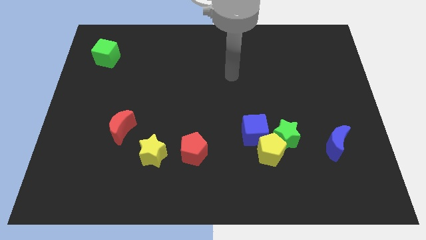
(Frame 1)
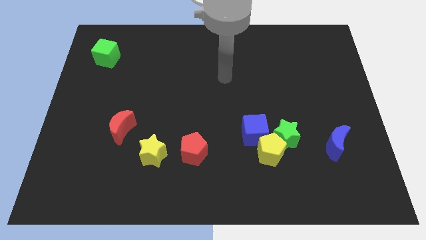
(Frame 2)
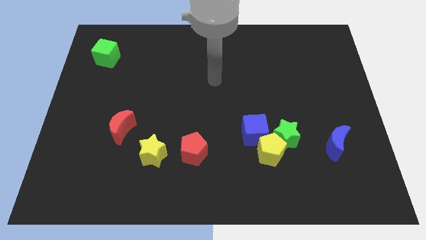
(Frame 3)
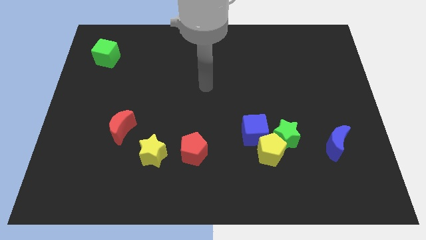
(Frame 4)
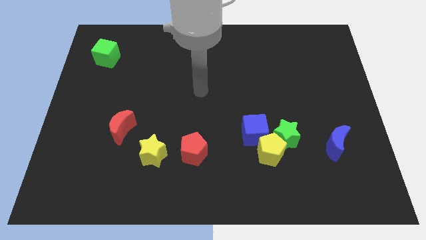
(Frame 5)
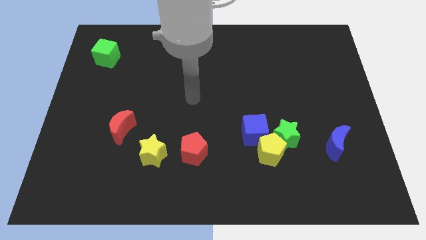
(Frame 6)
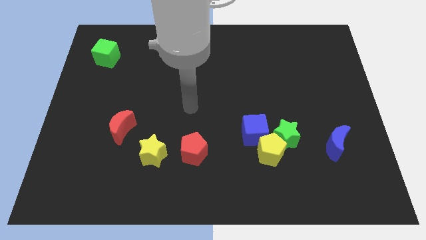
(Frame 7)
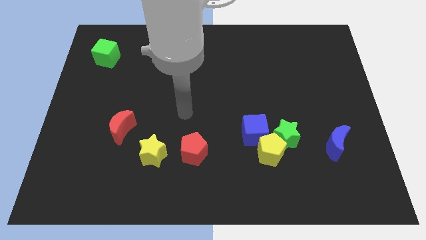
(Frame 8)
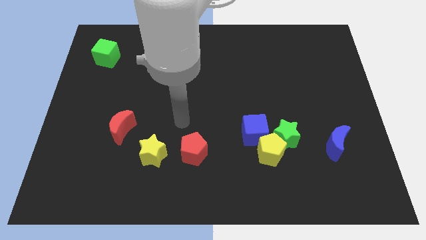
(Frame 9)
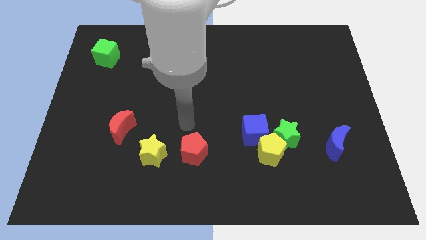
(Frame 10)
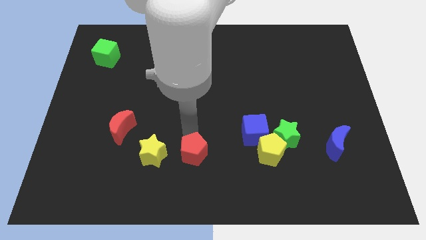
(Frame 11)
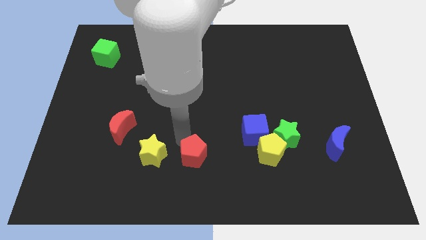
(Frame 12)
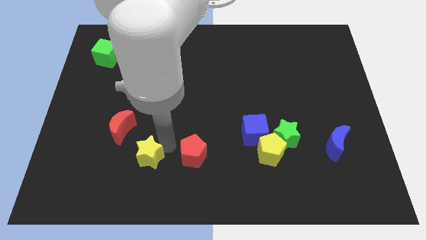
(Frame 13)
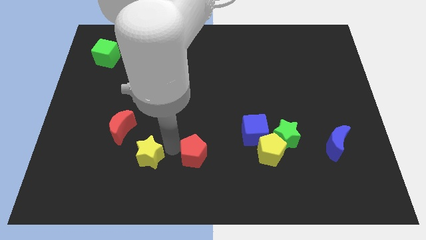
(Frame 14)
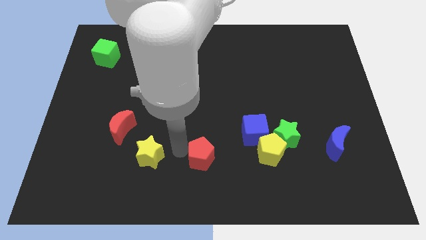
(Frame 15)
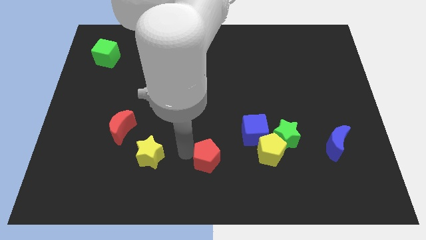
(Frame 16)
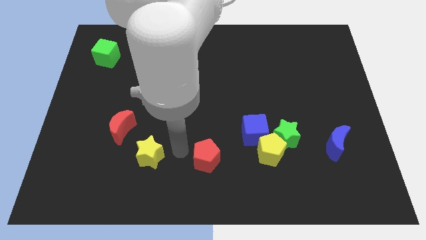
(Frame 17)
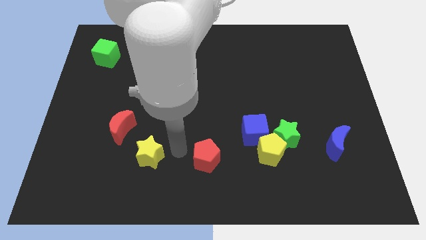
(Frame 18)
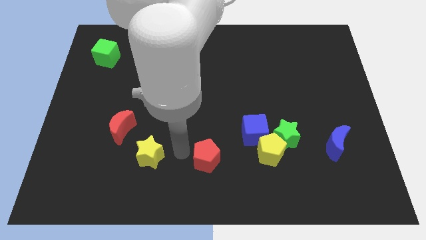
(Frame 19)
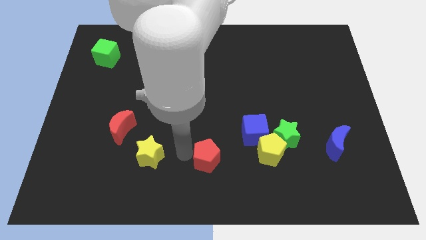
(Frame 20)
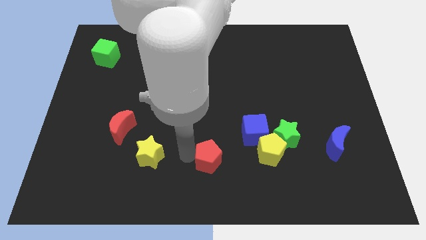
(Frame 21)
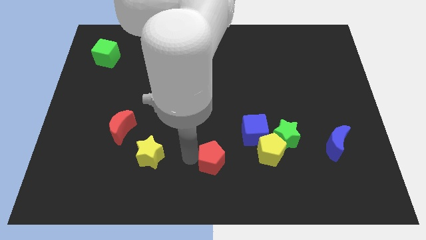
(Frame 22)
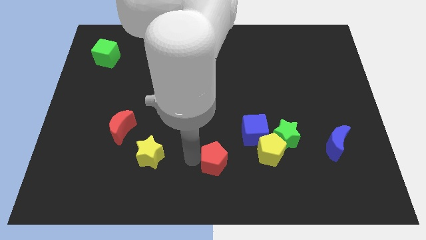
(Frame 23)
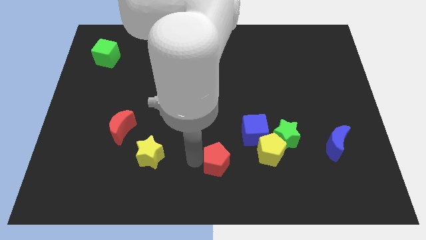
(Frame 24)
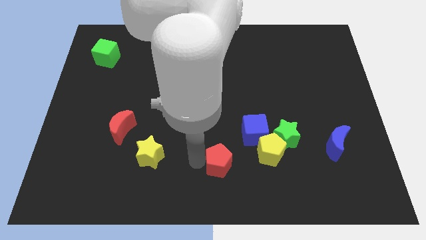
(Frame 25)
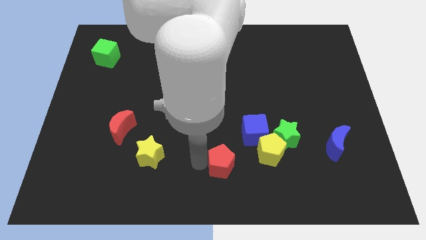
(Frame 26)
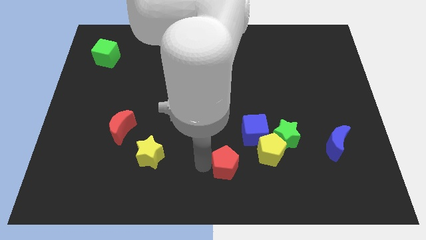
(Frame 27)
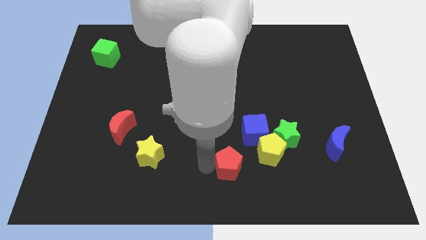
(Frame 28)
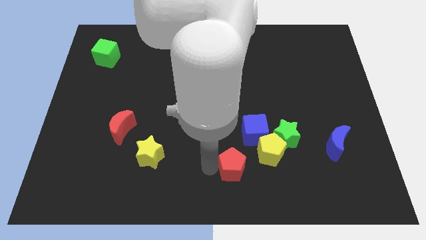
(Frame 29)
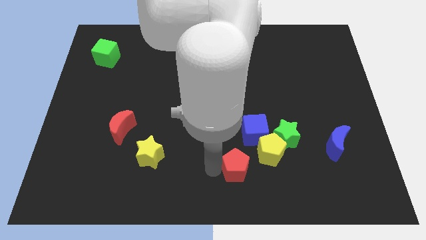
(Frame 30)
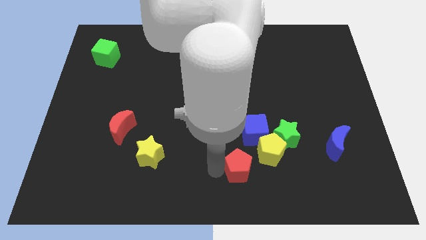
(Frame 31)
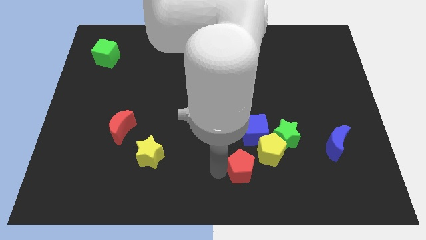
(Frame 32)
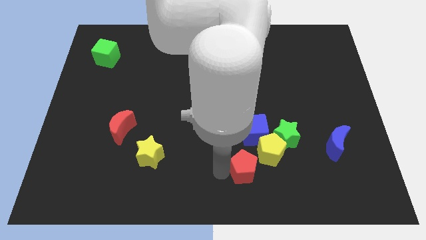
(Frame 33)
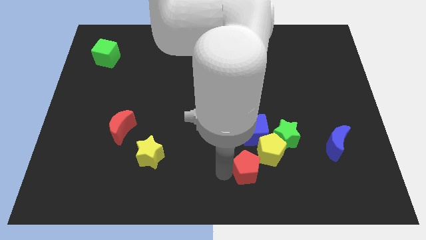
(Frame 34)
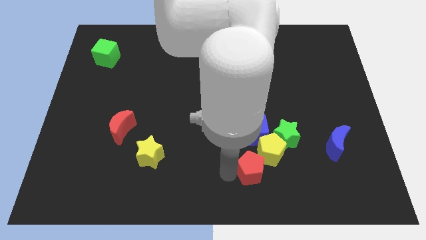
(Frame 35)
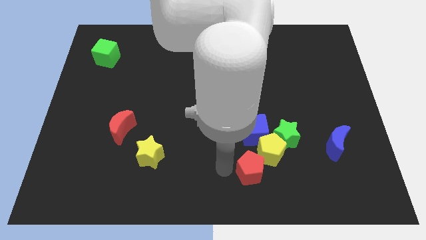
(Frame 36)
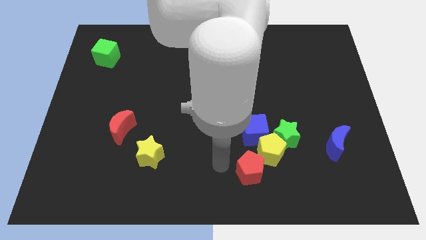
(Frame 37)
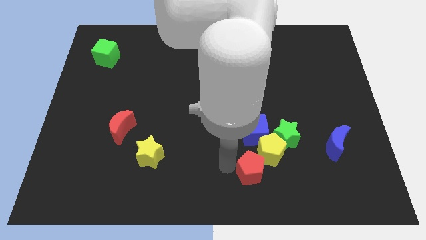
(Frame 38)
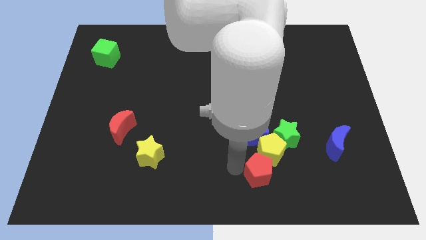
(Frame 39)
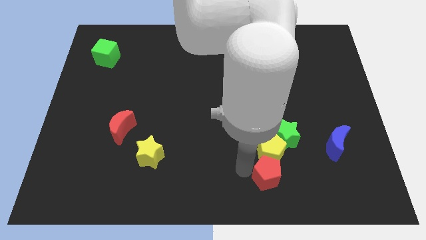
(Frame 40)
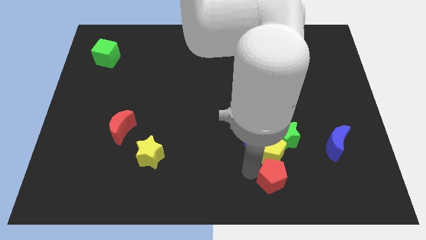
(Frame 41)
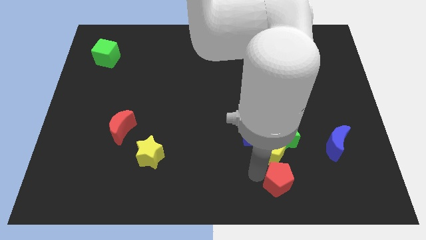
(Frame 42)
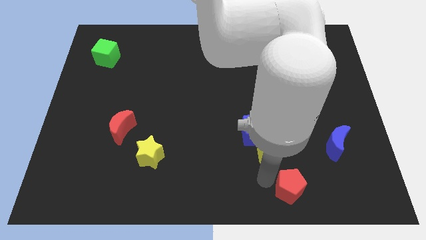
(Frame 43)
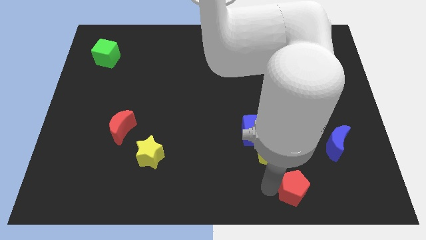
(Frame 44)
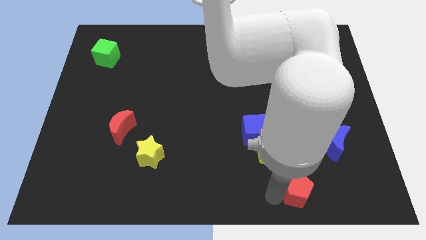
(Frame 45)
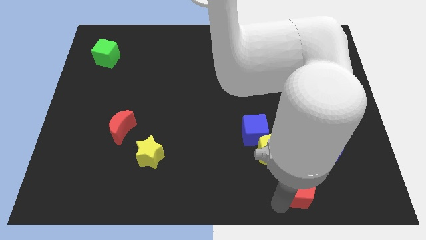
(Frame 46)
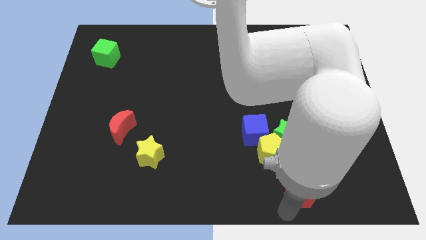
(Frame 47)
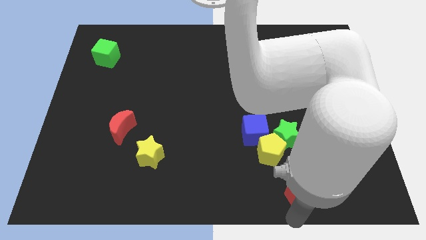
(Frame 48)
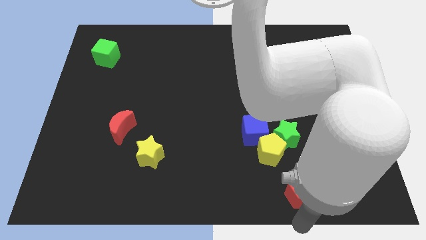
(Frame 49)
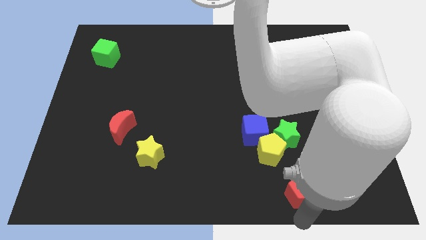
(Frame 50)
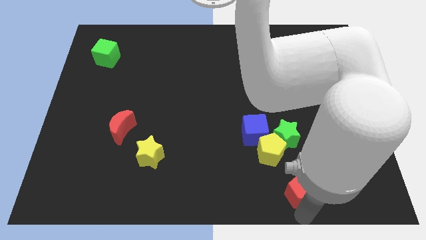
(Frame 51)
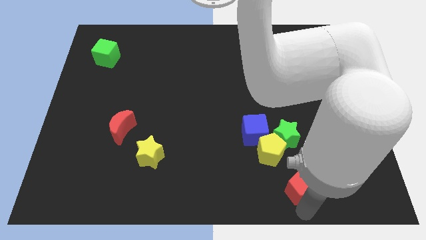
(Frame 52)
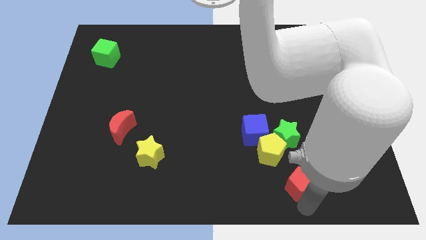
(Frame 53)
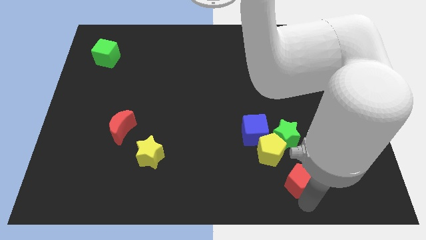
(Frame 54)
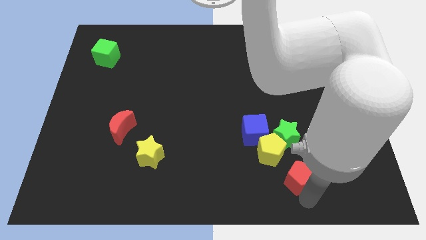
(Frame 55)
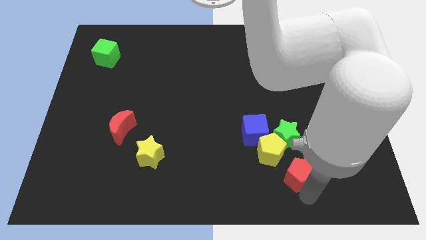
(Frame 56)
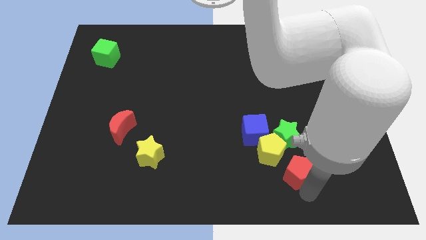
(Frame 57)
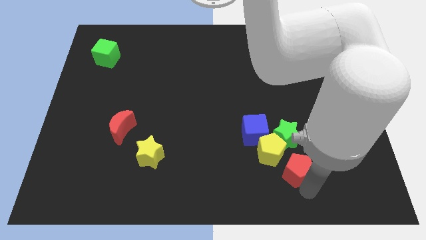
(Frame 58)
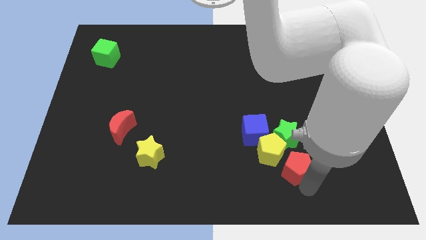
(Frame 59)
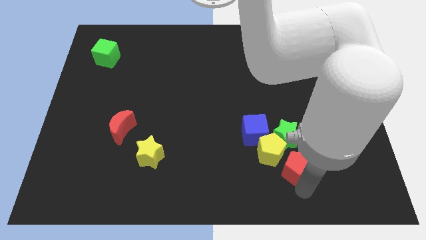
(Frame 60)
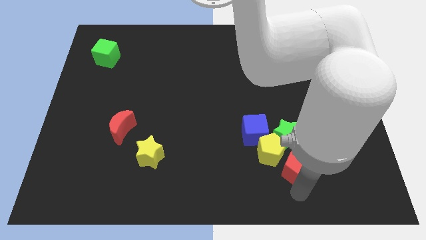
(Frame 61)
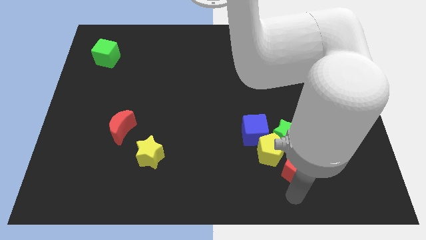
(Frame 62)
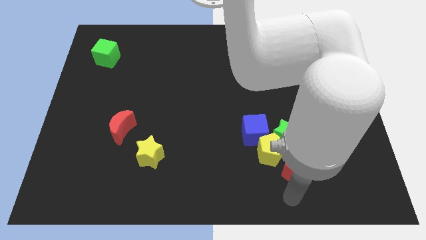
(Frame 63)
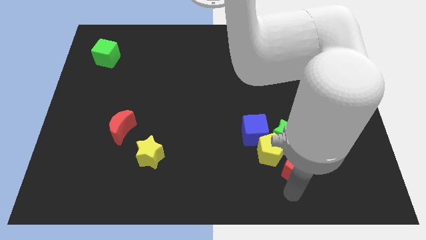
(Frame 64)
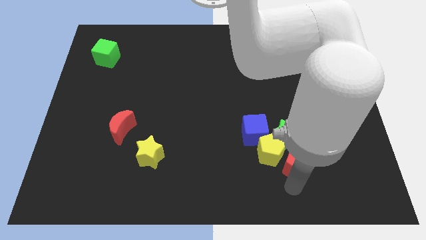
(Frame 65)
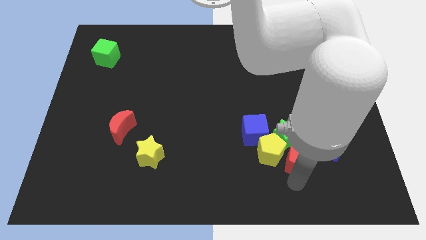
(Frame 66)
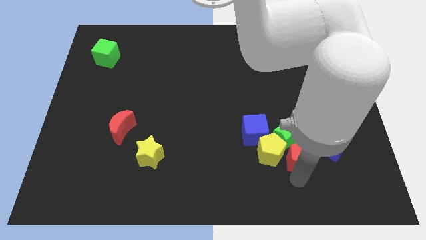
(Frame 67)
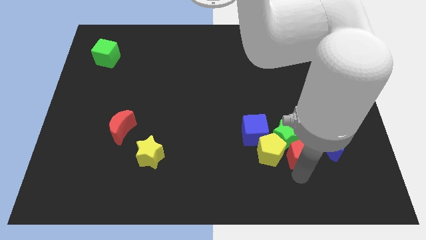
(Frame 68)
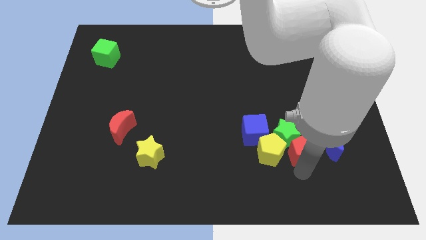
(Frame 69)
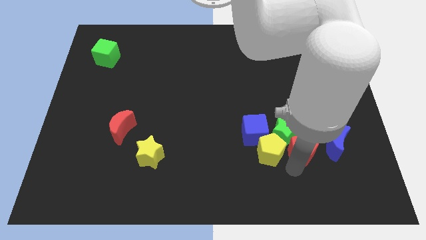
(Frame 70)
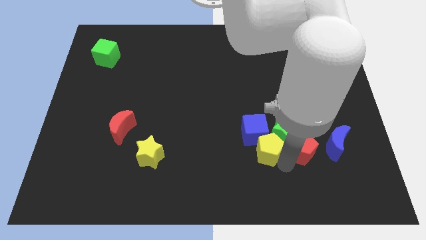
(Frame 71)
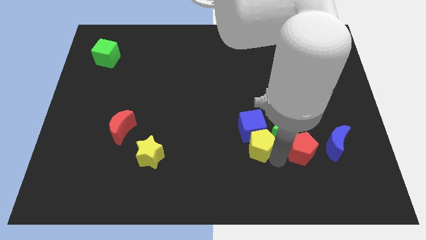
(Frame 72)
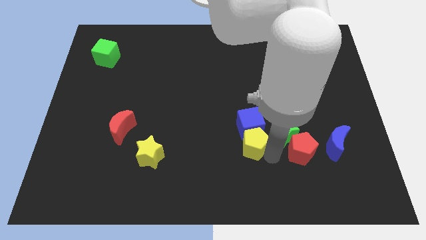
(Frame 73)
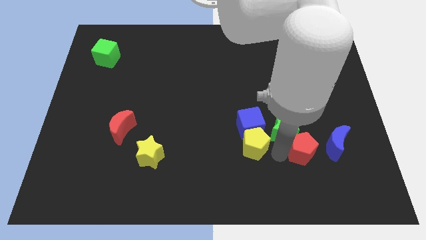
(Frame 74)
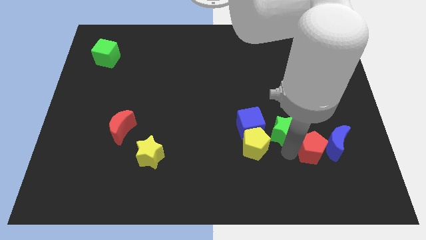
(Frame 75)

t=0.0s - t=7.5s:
push the red pentagon close to the blue moon
